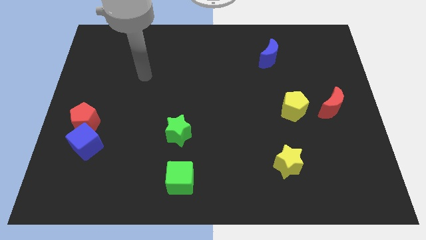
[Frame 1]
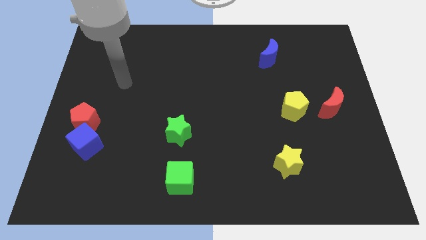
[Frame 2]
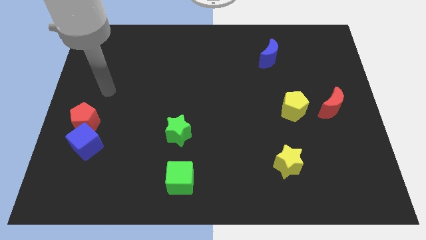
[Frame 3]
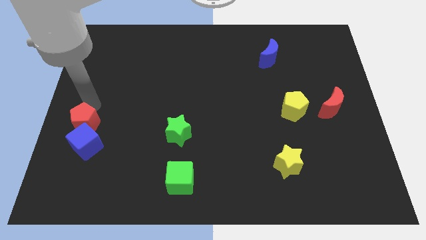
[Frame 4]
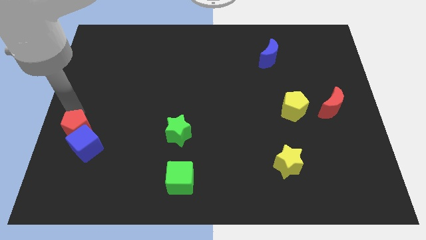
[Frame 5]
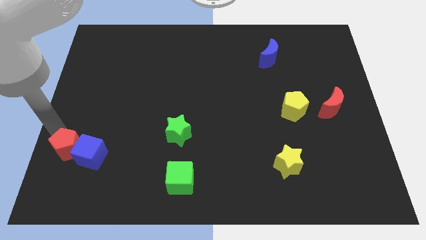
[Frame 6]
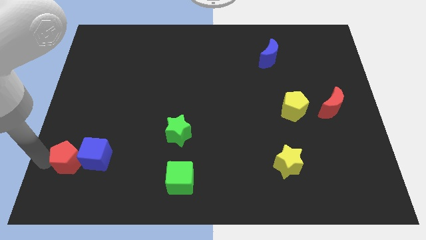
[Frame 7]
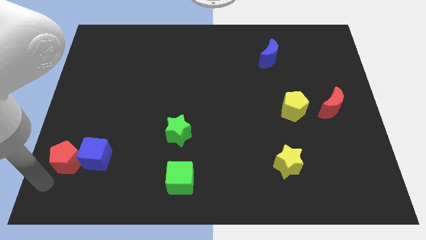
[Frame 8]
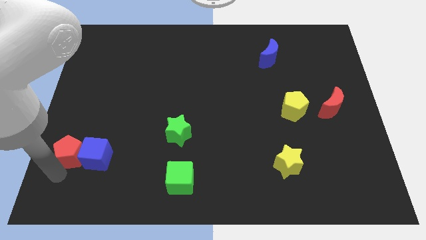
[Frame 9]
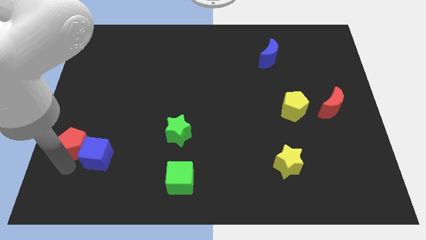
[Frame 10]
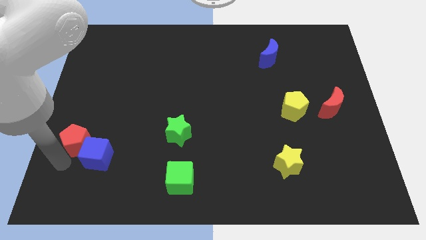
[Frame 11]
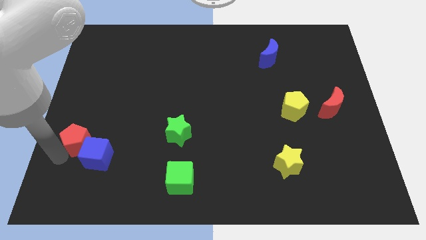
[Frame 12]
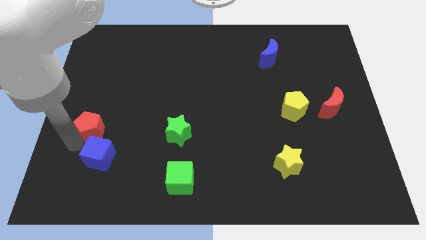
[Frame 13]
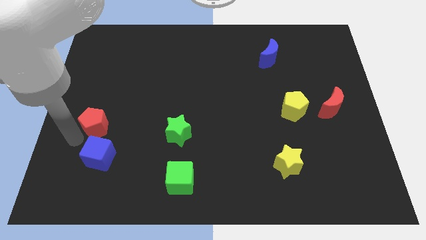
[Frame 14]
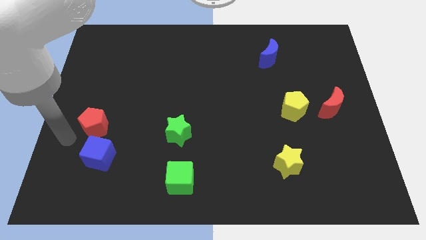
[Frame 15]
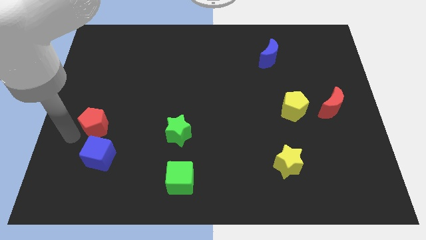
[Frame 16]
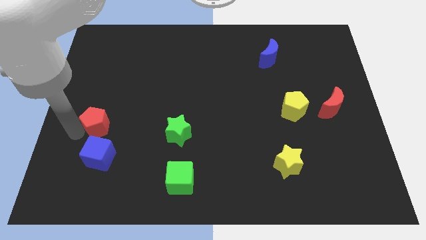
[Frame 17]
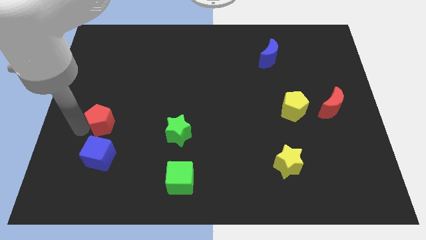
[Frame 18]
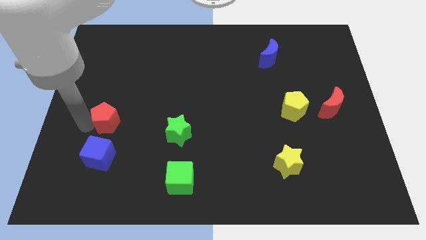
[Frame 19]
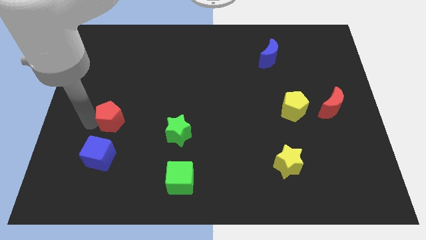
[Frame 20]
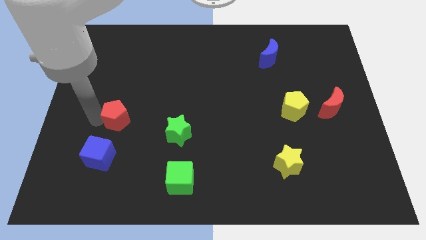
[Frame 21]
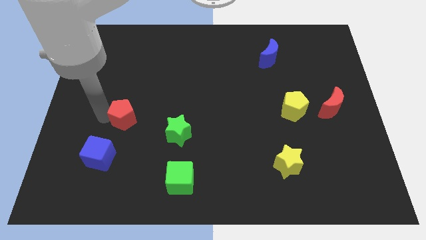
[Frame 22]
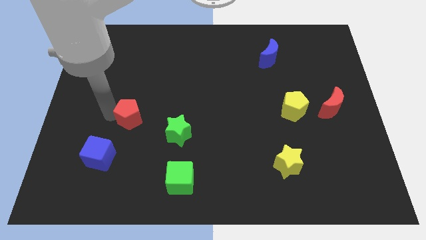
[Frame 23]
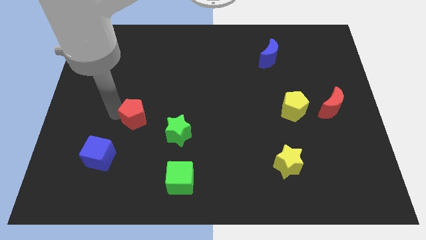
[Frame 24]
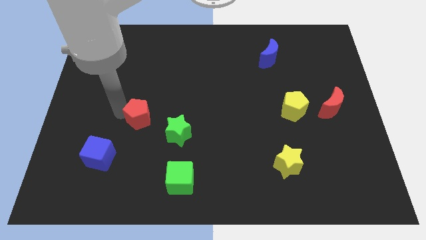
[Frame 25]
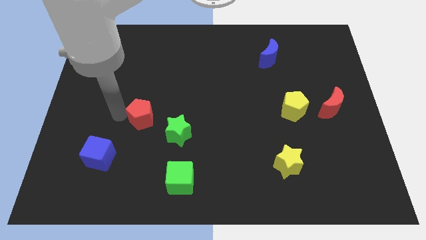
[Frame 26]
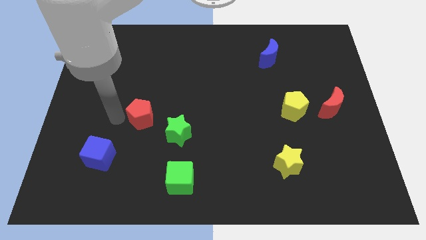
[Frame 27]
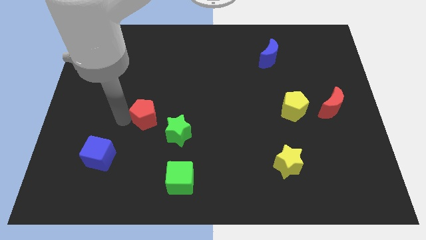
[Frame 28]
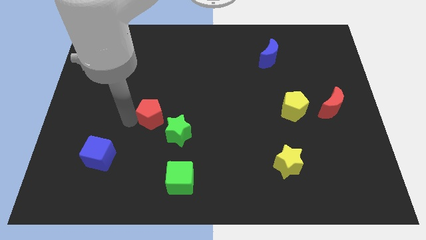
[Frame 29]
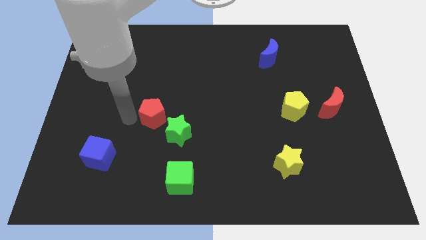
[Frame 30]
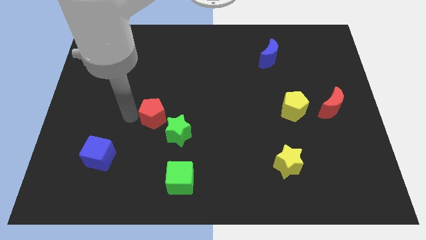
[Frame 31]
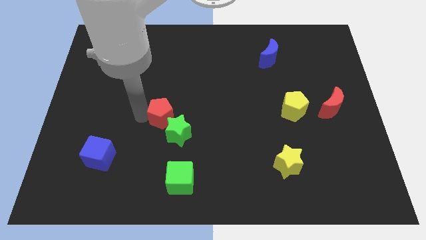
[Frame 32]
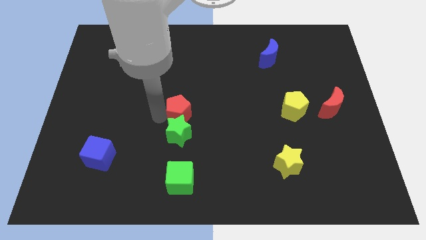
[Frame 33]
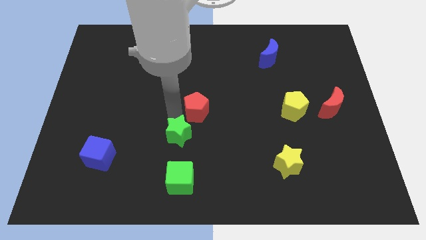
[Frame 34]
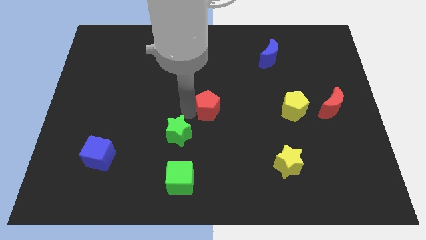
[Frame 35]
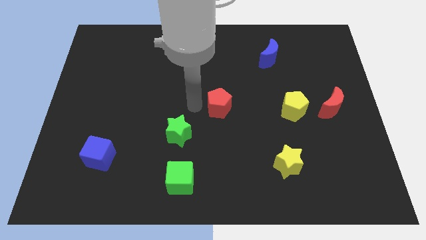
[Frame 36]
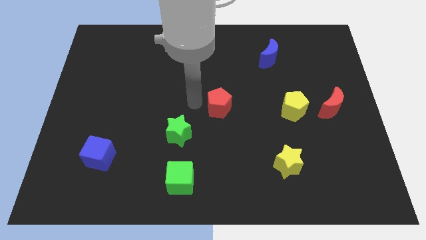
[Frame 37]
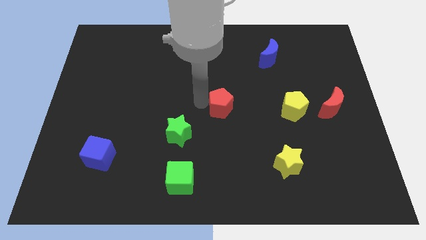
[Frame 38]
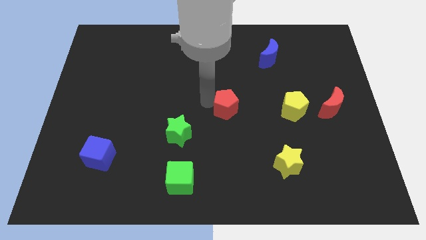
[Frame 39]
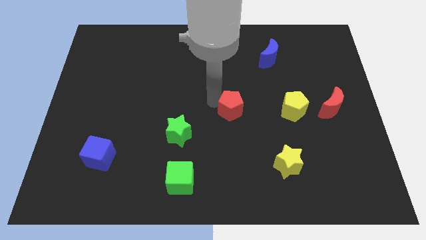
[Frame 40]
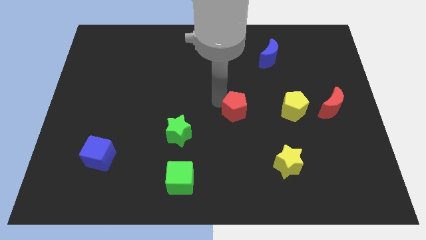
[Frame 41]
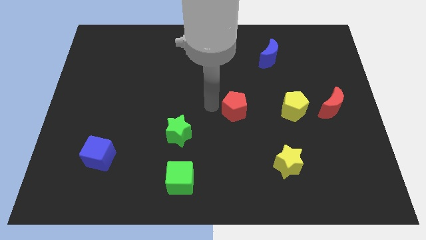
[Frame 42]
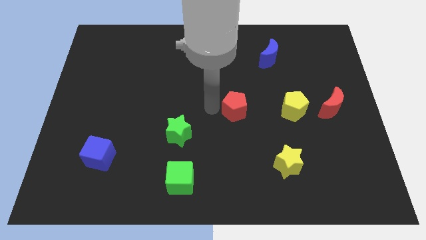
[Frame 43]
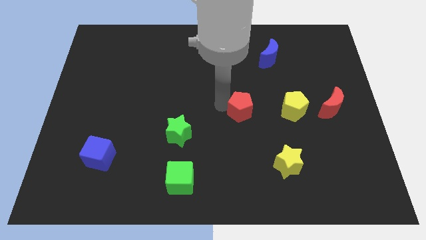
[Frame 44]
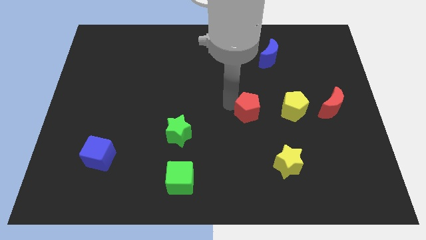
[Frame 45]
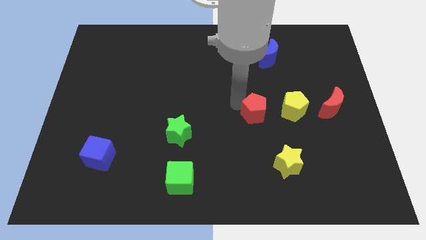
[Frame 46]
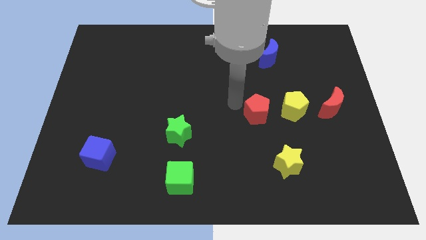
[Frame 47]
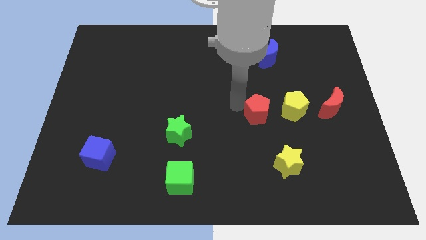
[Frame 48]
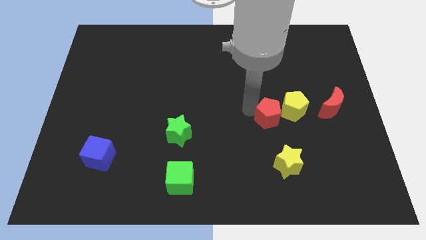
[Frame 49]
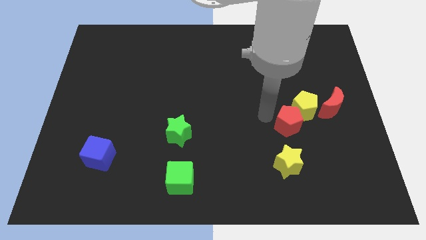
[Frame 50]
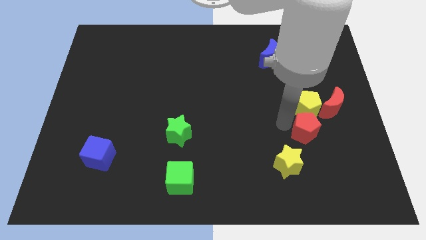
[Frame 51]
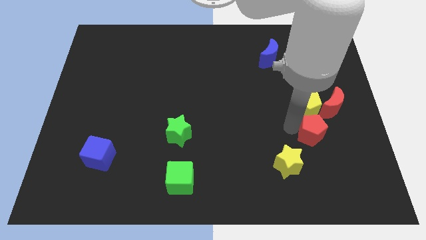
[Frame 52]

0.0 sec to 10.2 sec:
put the red pentagon to the bottom right of the yellow pentagon

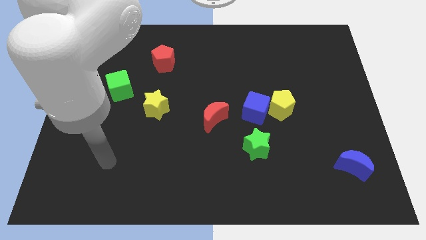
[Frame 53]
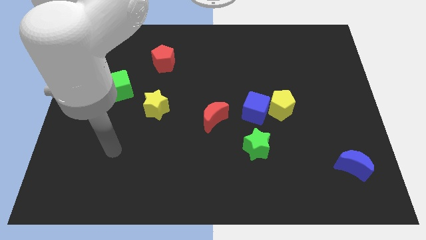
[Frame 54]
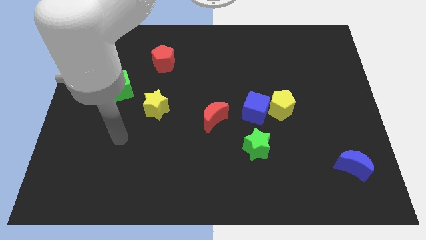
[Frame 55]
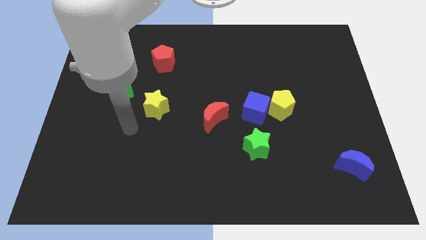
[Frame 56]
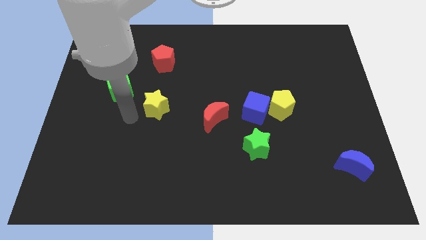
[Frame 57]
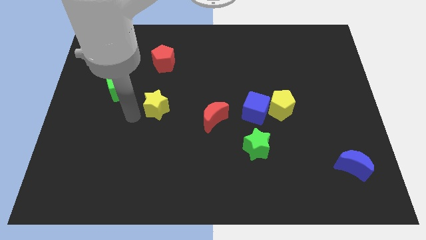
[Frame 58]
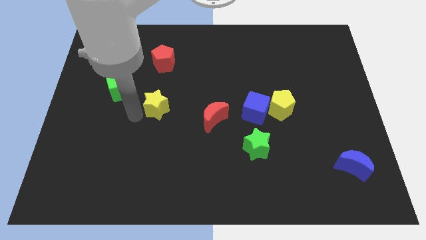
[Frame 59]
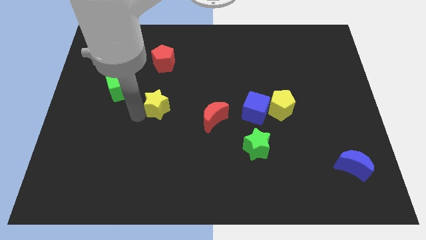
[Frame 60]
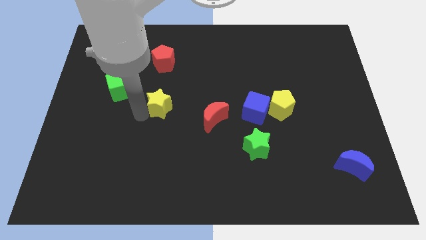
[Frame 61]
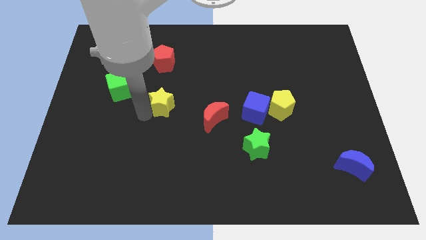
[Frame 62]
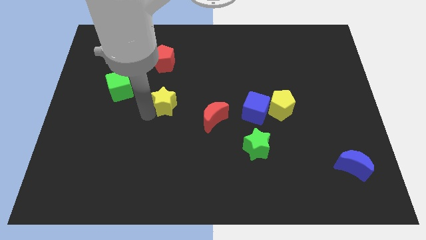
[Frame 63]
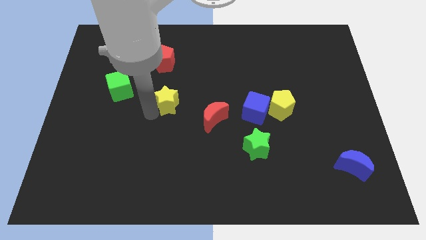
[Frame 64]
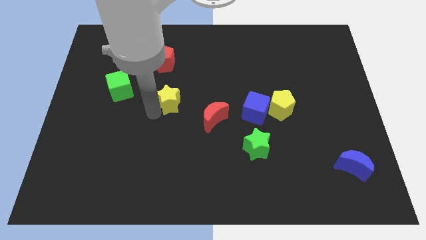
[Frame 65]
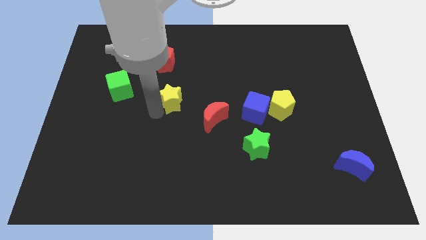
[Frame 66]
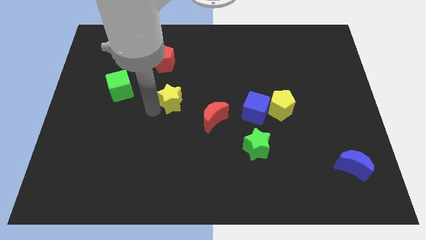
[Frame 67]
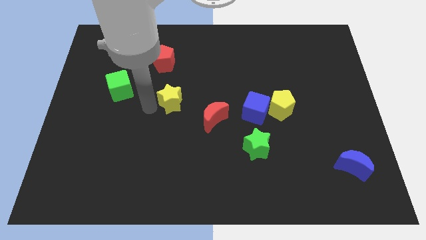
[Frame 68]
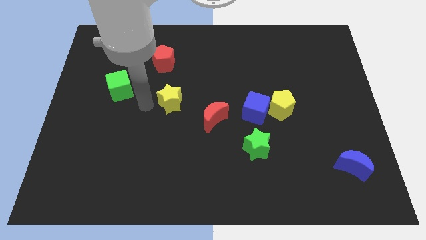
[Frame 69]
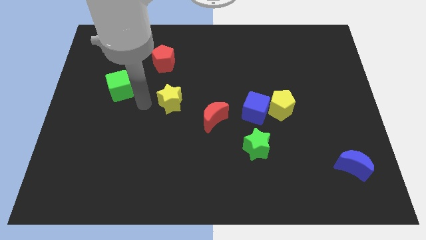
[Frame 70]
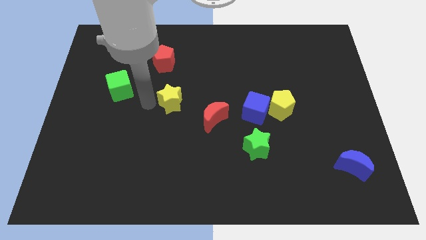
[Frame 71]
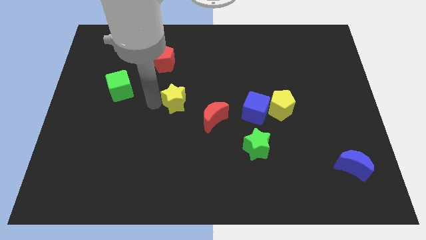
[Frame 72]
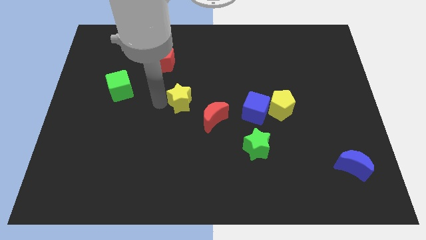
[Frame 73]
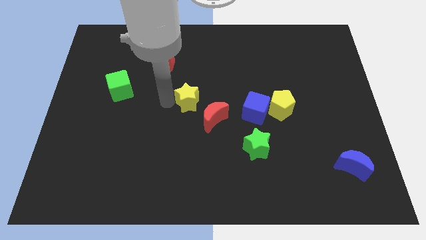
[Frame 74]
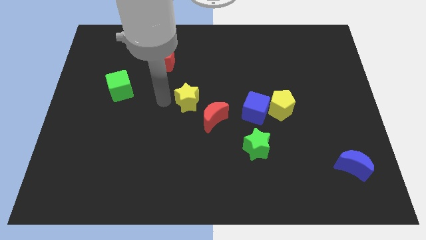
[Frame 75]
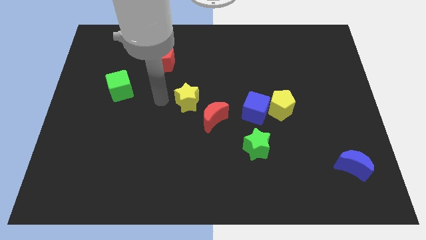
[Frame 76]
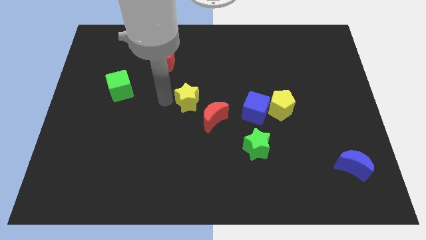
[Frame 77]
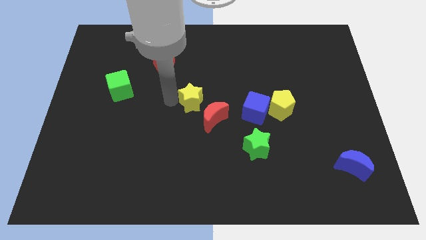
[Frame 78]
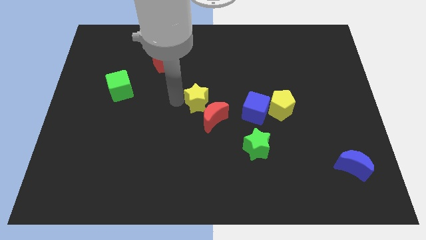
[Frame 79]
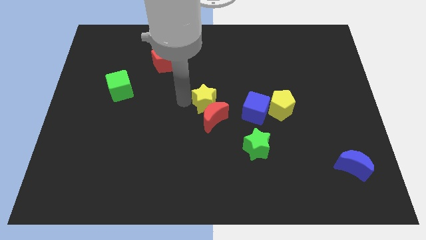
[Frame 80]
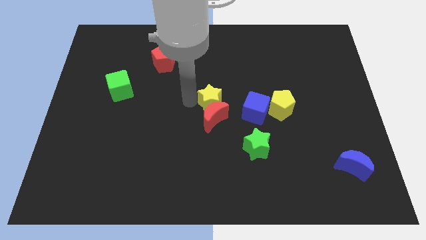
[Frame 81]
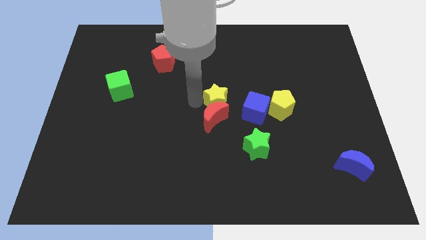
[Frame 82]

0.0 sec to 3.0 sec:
slide the yellow star just left of the yellow pentagon
